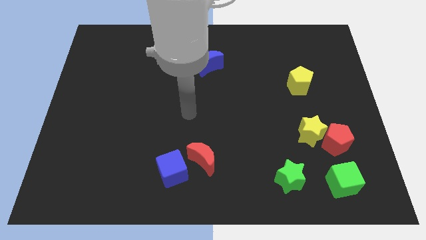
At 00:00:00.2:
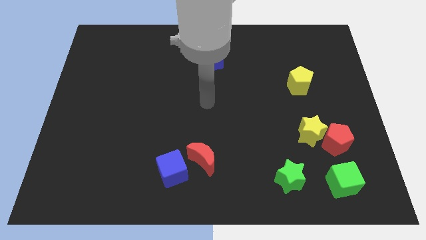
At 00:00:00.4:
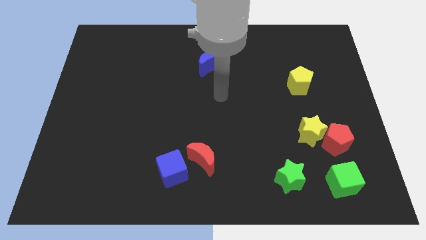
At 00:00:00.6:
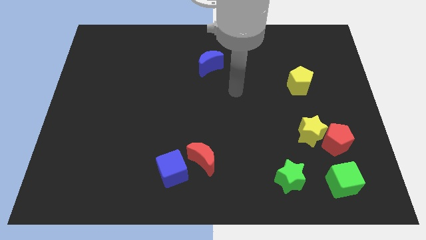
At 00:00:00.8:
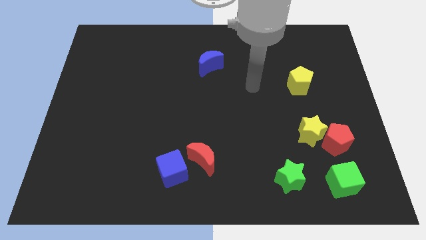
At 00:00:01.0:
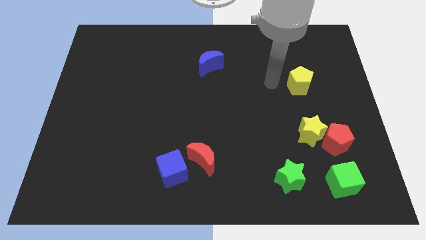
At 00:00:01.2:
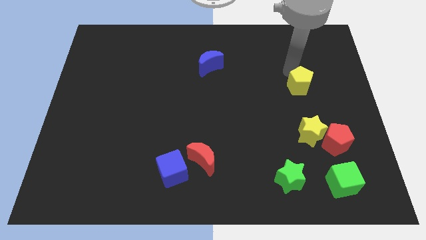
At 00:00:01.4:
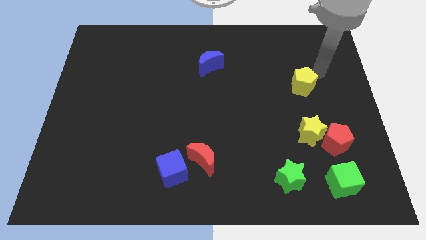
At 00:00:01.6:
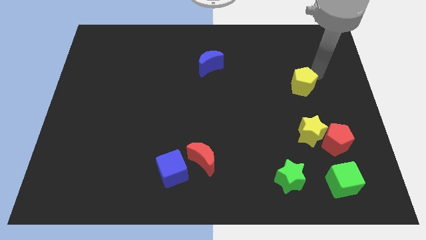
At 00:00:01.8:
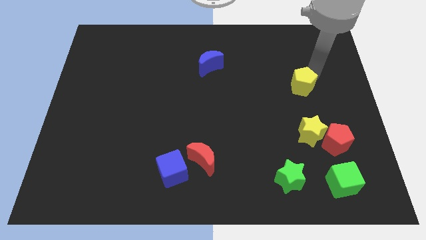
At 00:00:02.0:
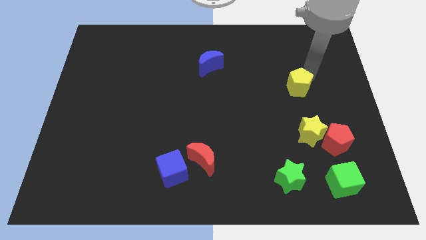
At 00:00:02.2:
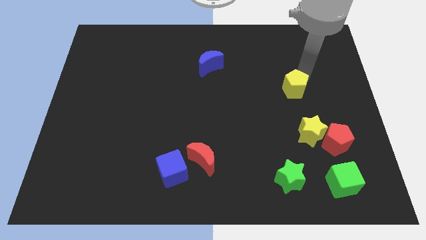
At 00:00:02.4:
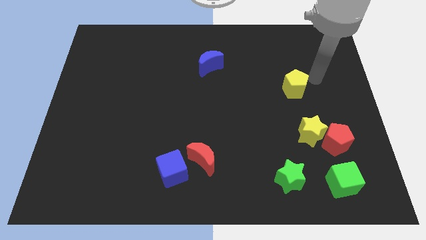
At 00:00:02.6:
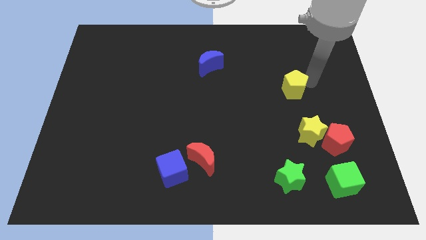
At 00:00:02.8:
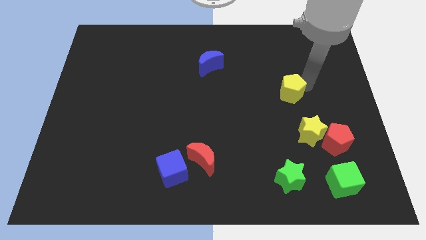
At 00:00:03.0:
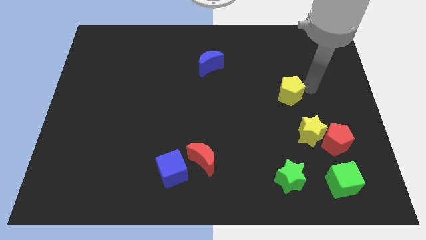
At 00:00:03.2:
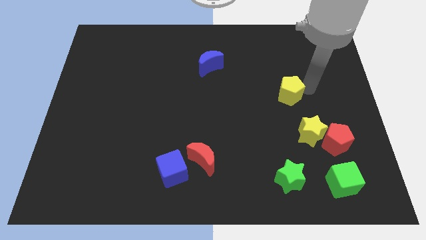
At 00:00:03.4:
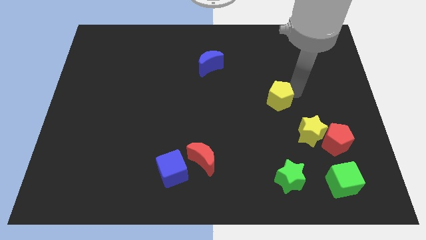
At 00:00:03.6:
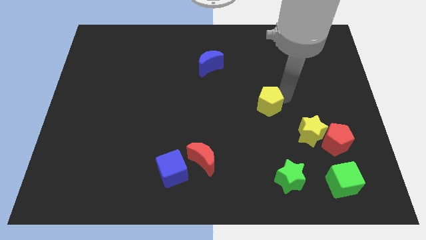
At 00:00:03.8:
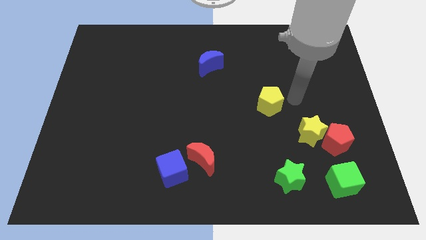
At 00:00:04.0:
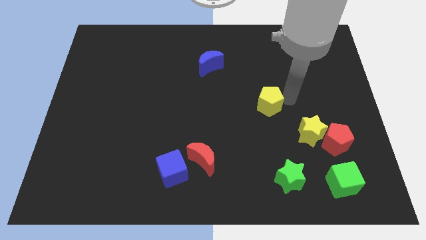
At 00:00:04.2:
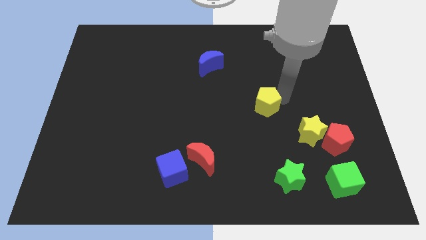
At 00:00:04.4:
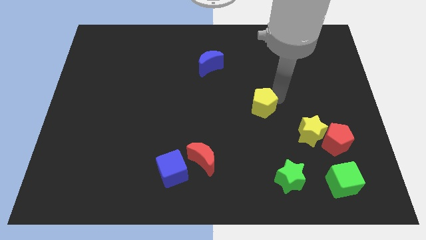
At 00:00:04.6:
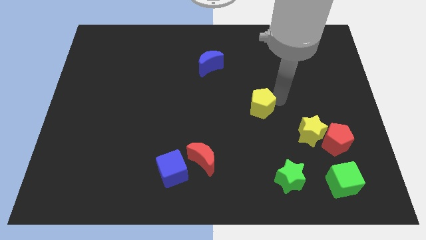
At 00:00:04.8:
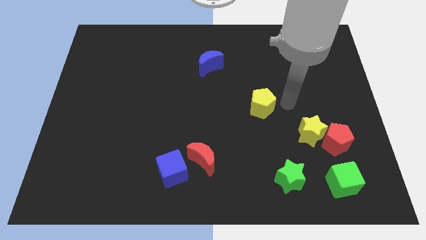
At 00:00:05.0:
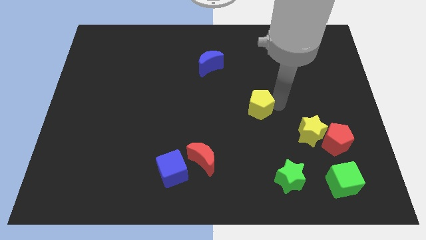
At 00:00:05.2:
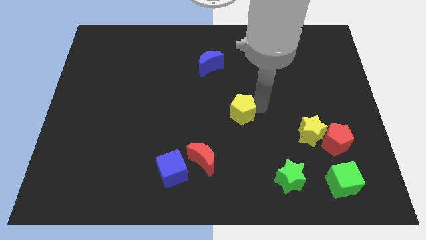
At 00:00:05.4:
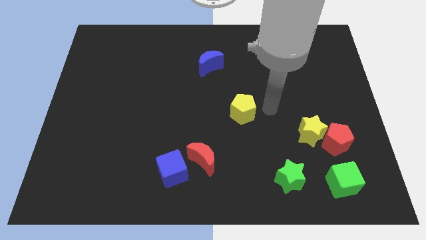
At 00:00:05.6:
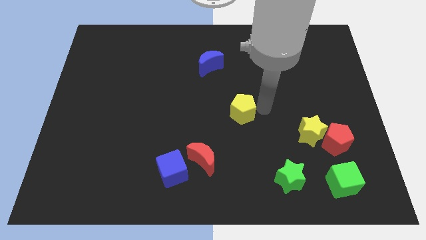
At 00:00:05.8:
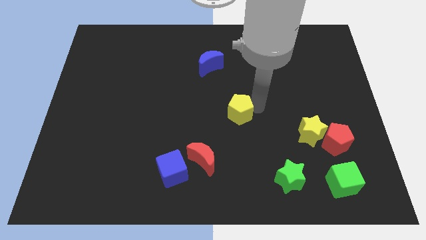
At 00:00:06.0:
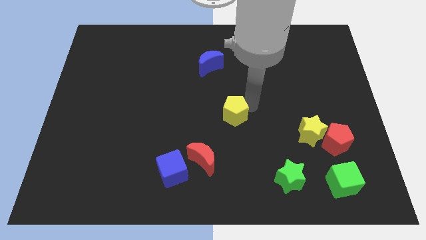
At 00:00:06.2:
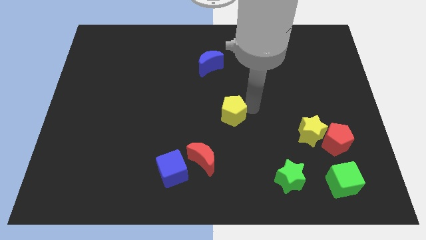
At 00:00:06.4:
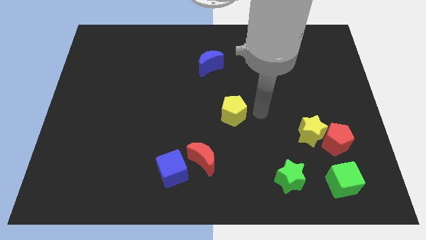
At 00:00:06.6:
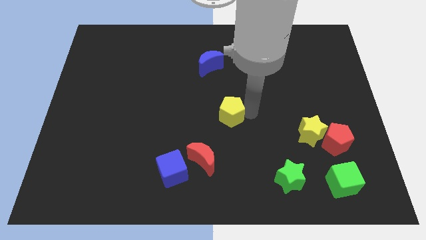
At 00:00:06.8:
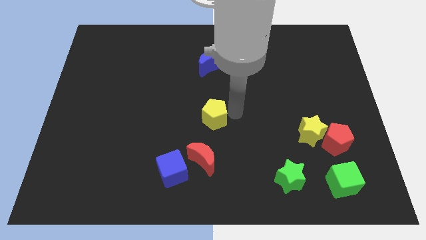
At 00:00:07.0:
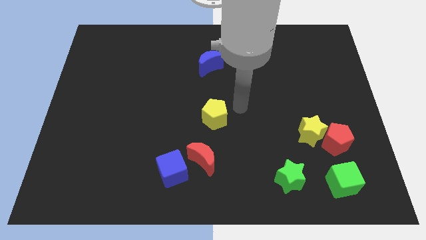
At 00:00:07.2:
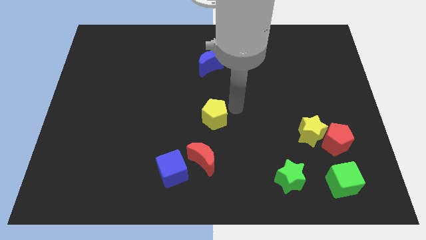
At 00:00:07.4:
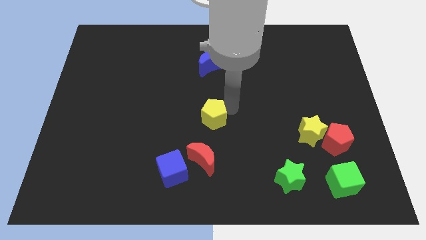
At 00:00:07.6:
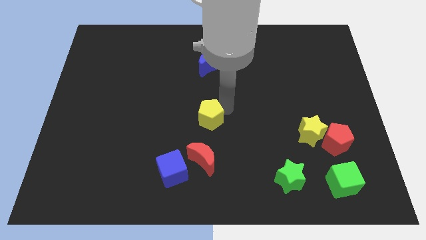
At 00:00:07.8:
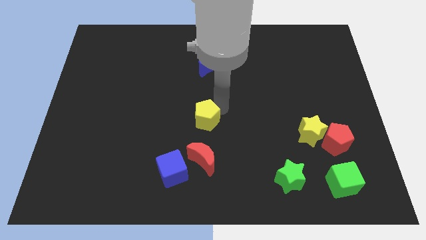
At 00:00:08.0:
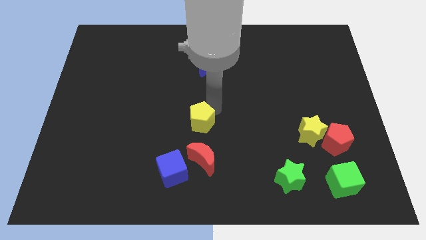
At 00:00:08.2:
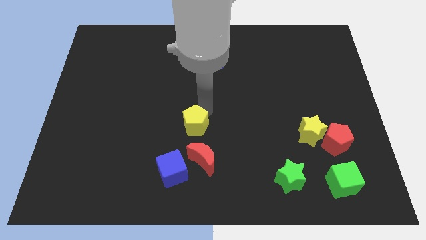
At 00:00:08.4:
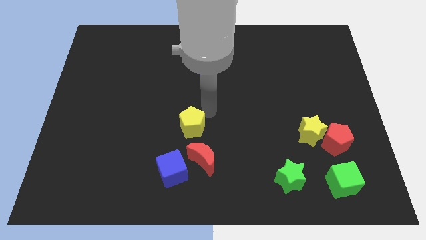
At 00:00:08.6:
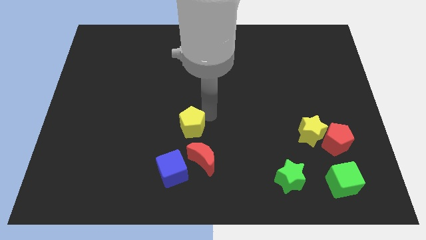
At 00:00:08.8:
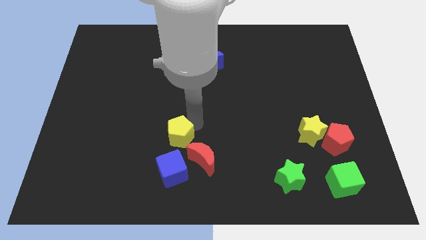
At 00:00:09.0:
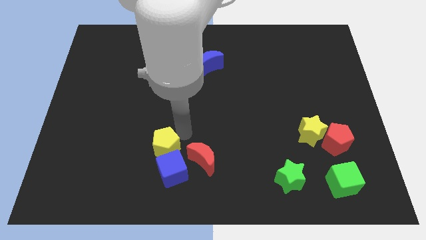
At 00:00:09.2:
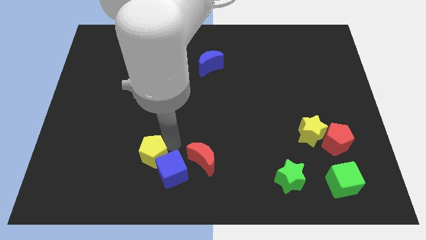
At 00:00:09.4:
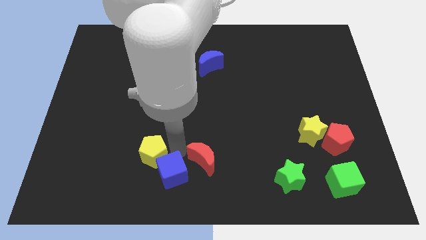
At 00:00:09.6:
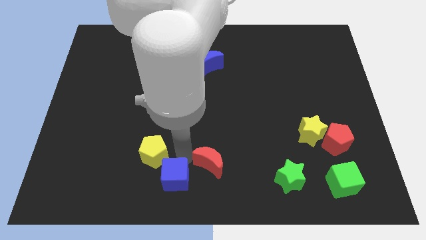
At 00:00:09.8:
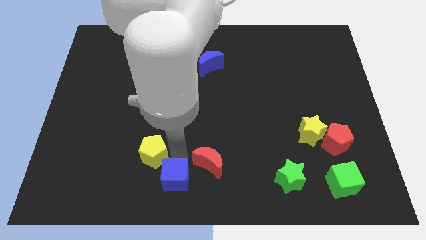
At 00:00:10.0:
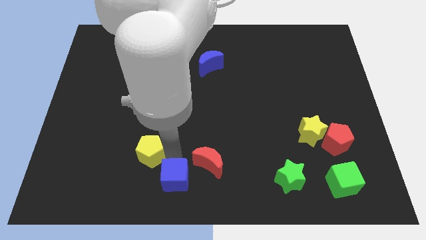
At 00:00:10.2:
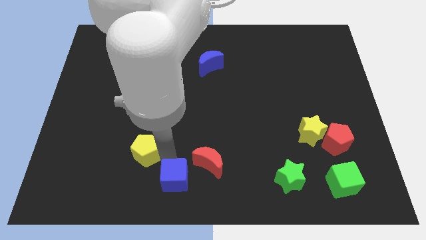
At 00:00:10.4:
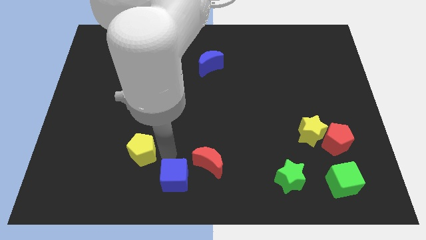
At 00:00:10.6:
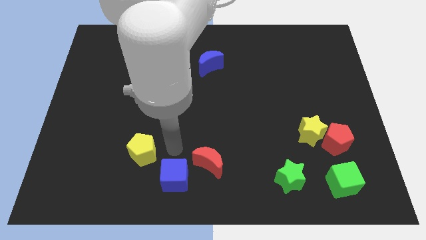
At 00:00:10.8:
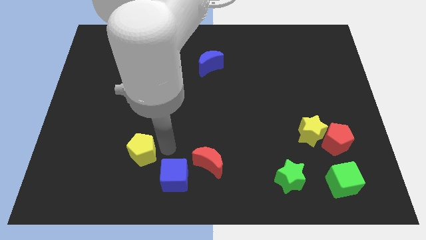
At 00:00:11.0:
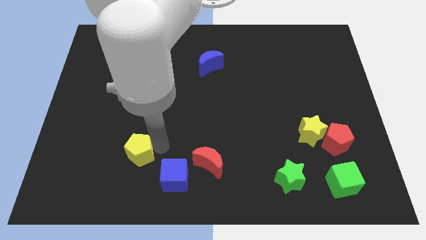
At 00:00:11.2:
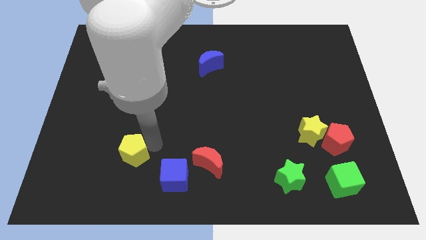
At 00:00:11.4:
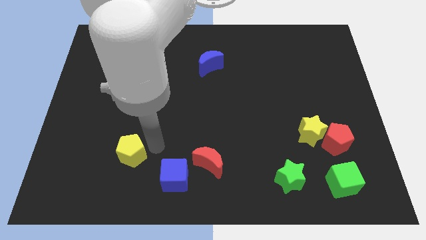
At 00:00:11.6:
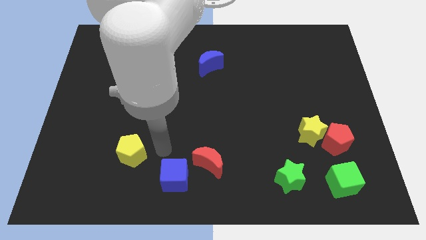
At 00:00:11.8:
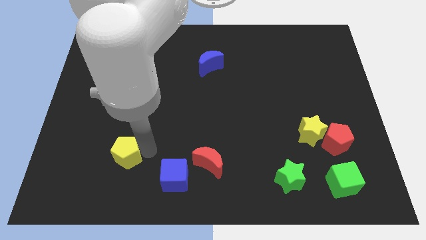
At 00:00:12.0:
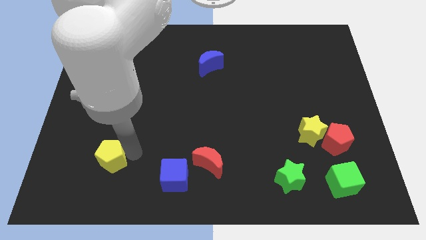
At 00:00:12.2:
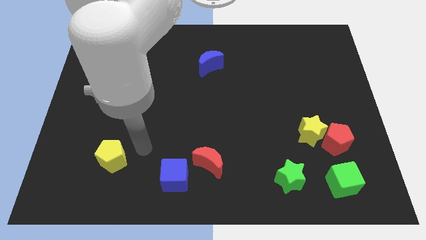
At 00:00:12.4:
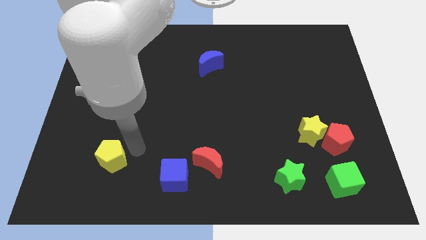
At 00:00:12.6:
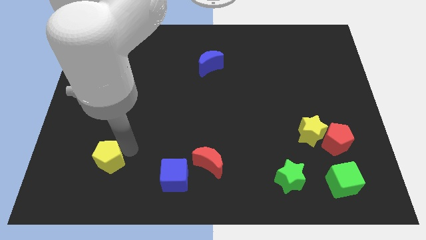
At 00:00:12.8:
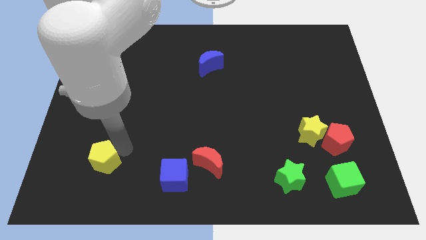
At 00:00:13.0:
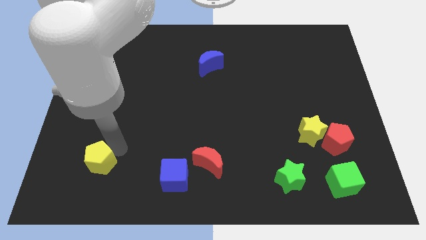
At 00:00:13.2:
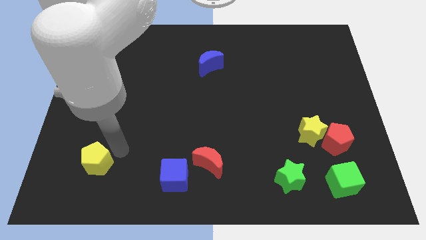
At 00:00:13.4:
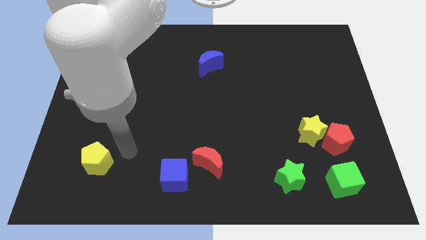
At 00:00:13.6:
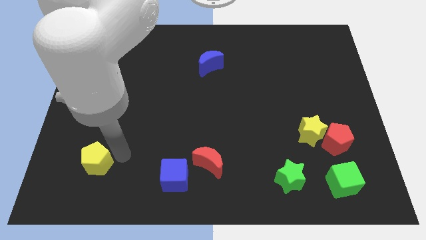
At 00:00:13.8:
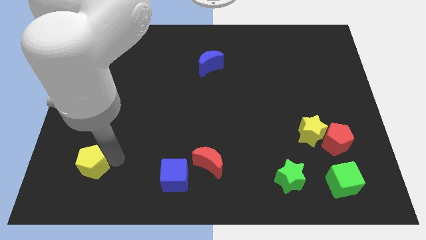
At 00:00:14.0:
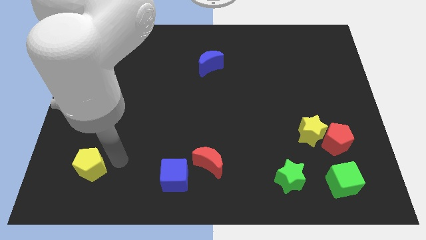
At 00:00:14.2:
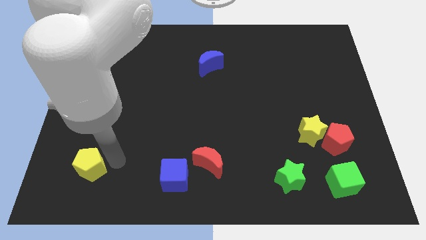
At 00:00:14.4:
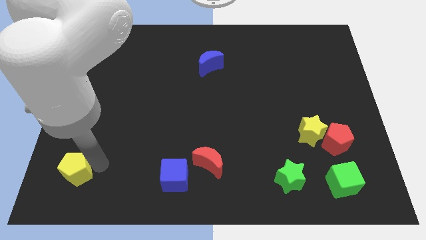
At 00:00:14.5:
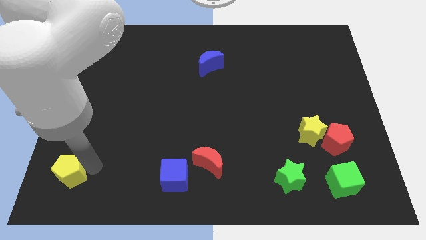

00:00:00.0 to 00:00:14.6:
put the yellow pentagon to the lower left corner
